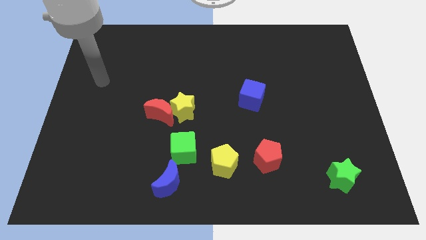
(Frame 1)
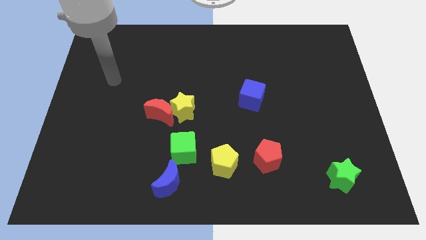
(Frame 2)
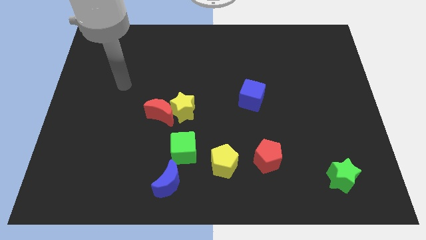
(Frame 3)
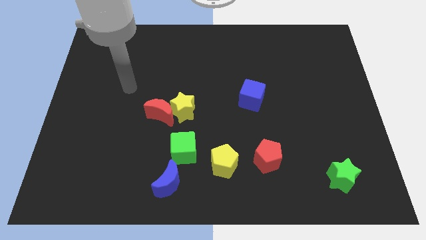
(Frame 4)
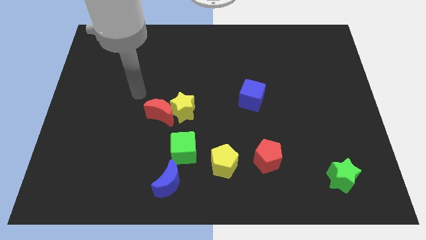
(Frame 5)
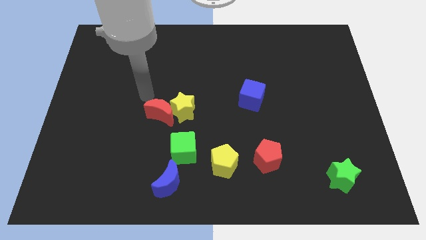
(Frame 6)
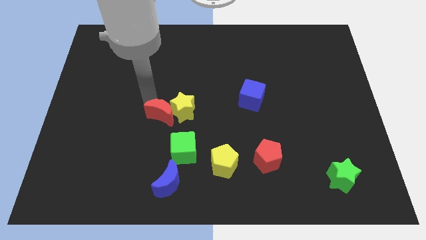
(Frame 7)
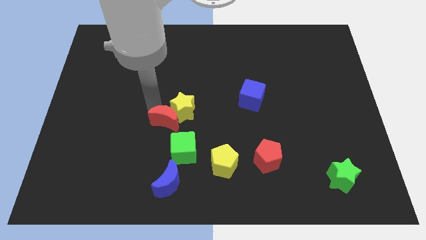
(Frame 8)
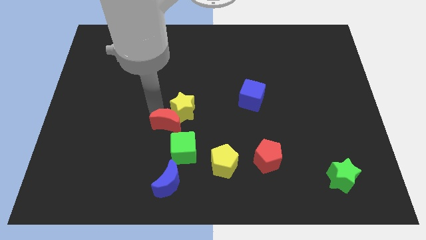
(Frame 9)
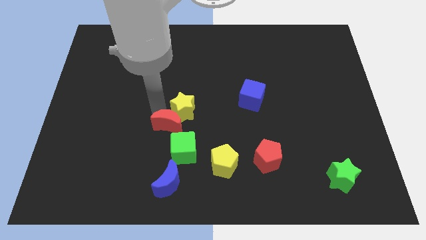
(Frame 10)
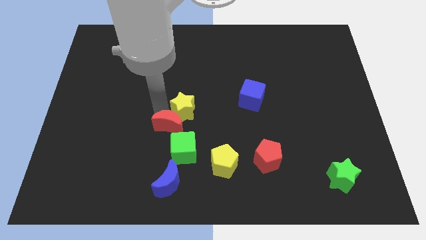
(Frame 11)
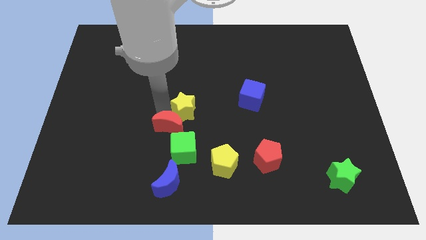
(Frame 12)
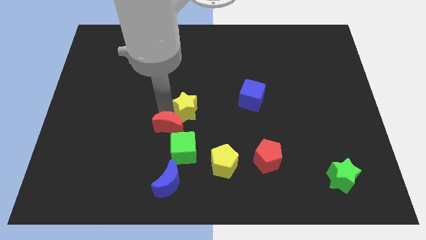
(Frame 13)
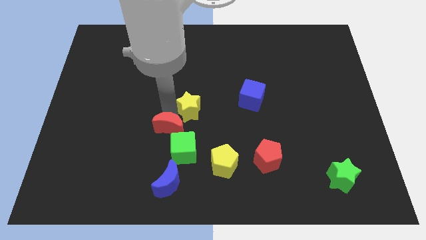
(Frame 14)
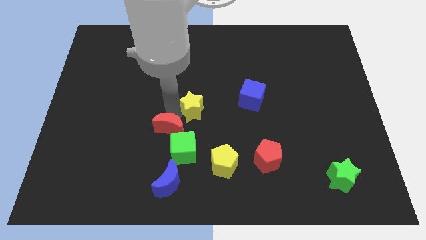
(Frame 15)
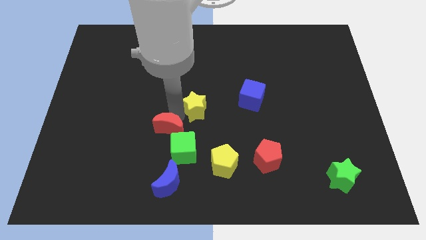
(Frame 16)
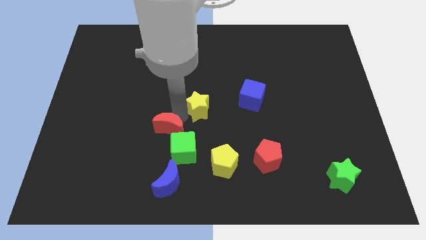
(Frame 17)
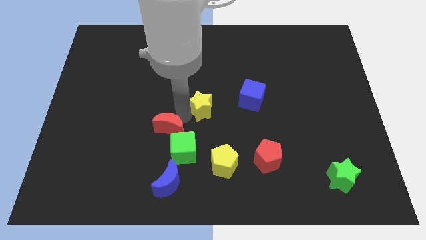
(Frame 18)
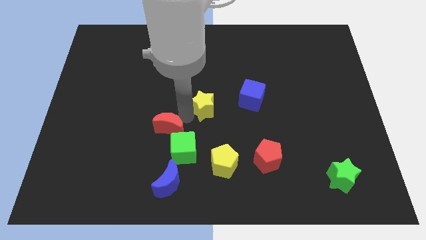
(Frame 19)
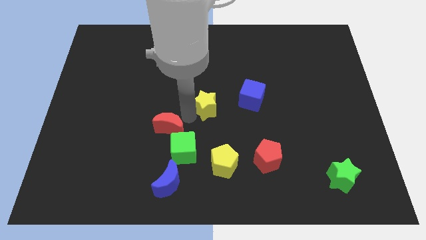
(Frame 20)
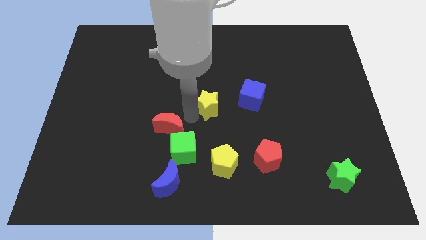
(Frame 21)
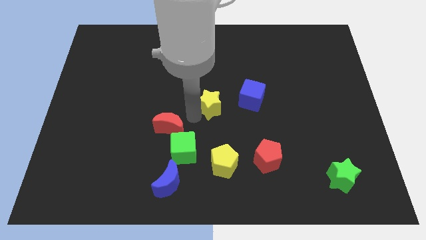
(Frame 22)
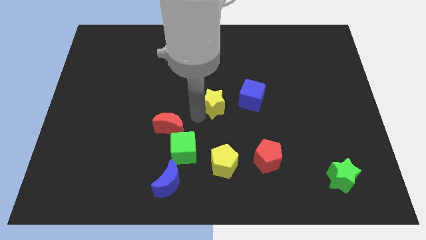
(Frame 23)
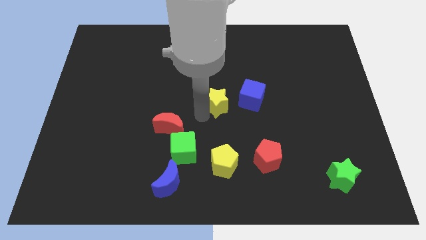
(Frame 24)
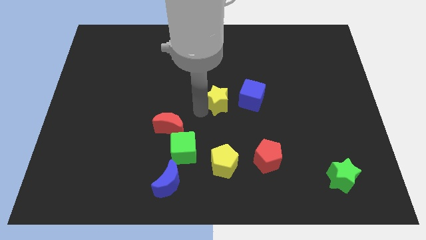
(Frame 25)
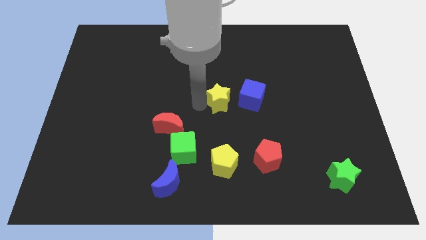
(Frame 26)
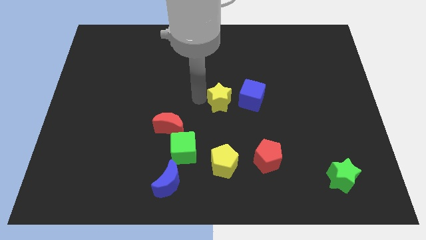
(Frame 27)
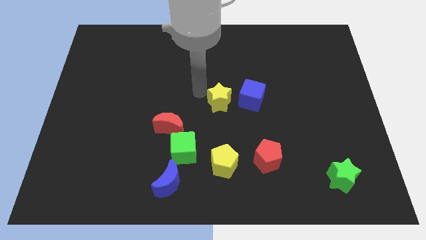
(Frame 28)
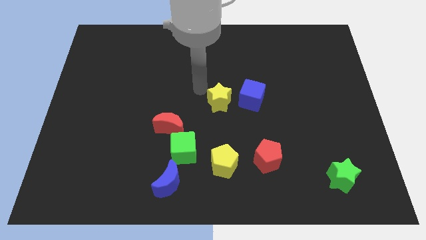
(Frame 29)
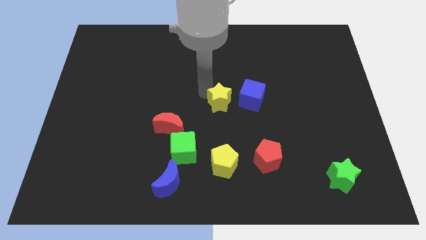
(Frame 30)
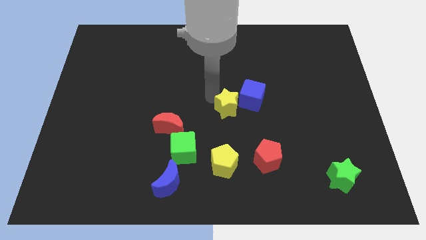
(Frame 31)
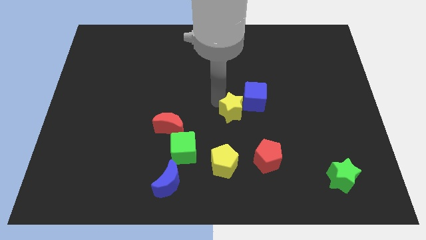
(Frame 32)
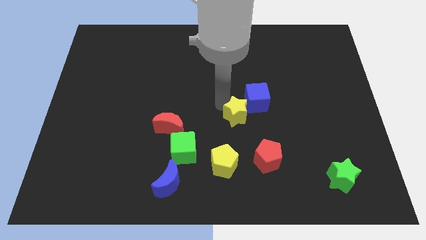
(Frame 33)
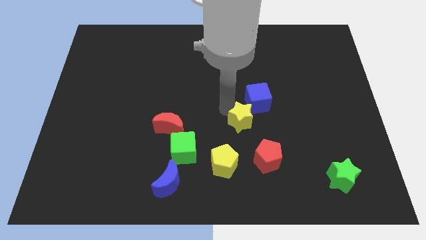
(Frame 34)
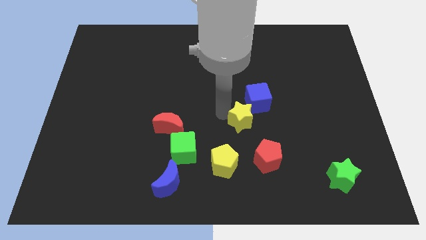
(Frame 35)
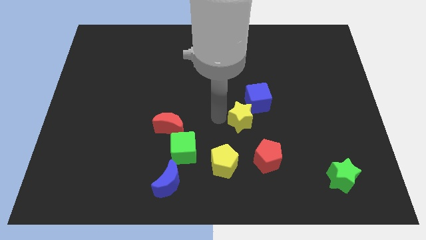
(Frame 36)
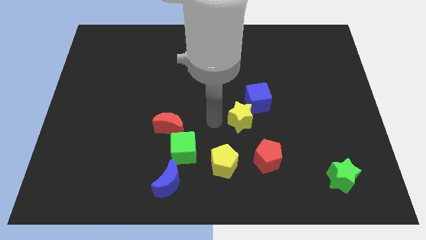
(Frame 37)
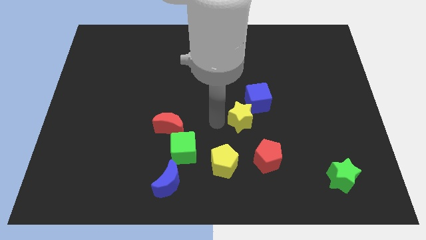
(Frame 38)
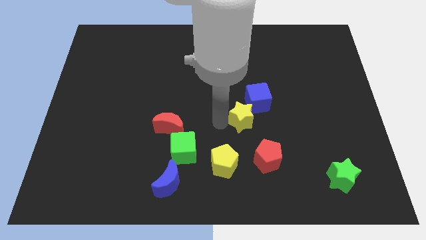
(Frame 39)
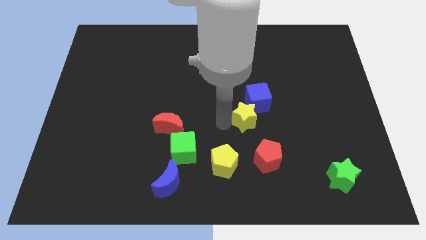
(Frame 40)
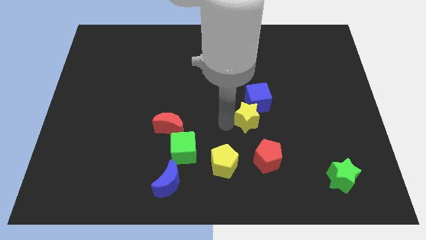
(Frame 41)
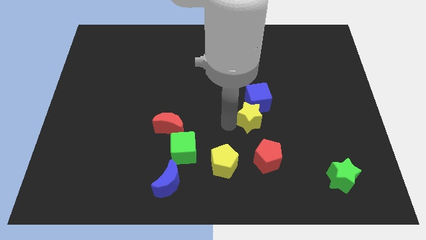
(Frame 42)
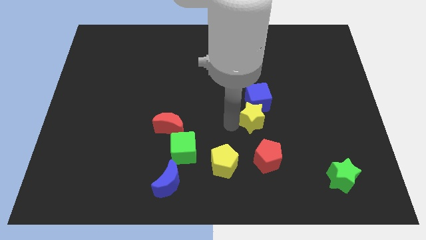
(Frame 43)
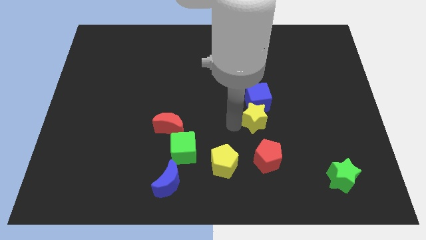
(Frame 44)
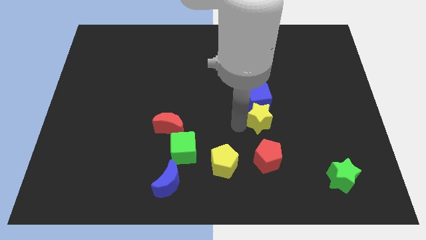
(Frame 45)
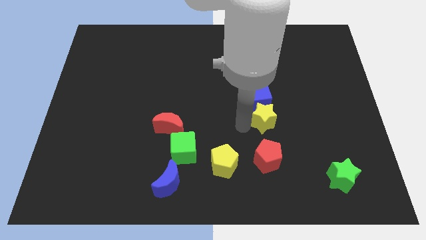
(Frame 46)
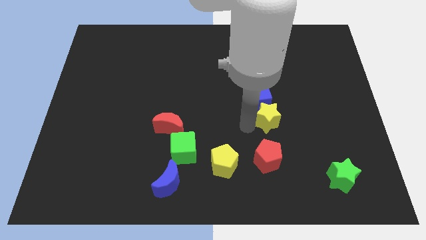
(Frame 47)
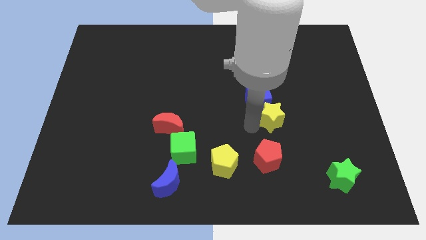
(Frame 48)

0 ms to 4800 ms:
move the yellow star right

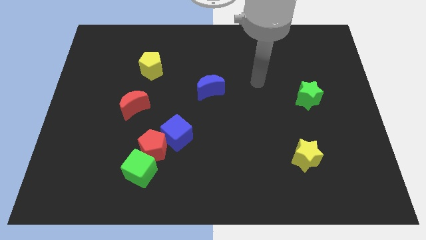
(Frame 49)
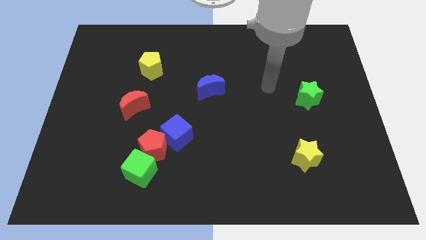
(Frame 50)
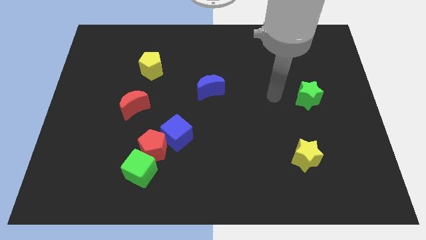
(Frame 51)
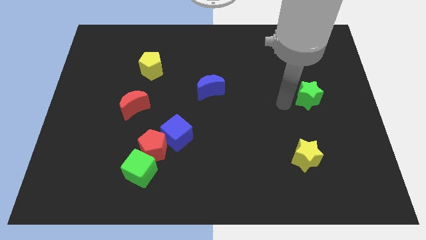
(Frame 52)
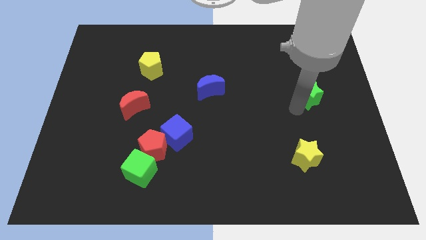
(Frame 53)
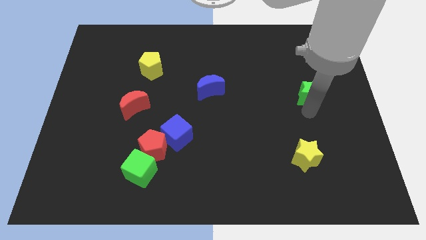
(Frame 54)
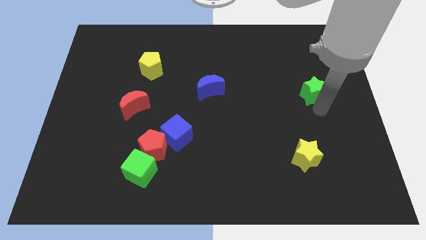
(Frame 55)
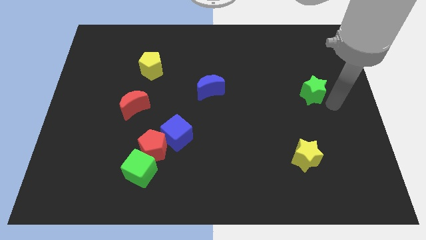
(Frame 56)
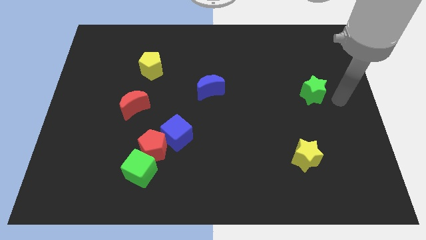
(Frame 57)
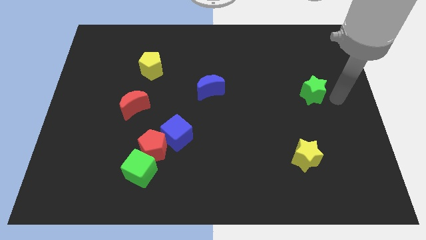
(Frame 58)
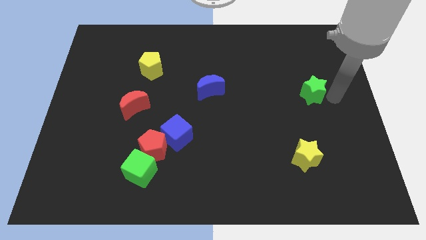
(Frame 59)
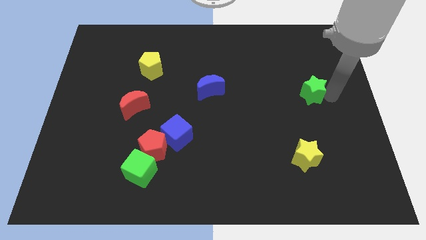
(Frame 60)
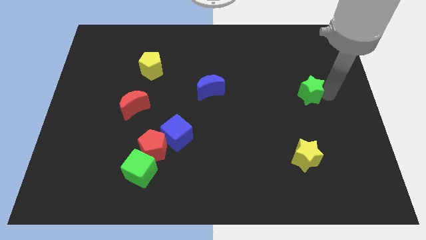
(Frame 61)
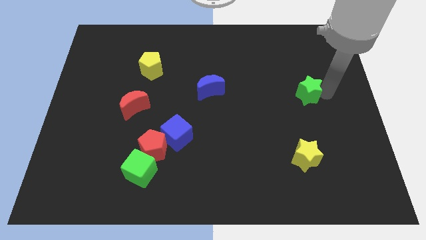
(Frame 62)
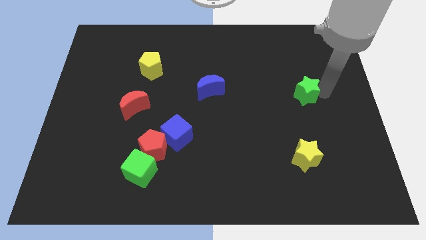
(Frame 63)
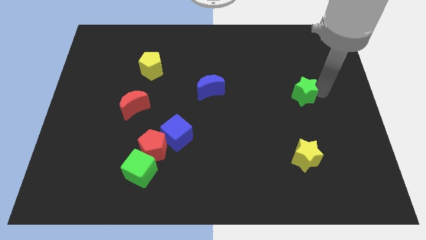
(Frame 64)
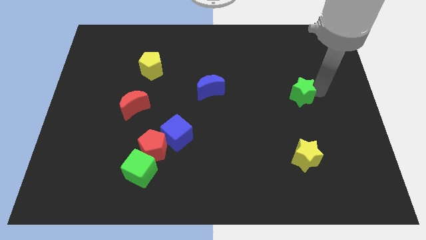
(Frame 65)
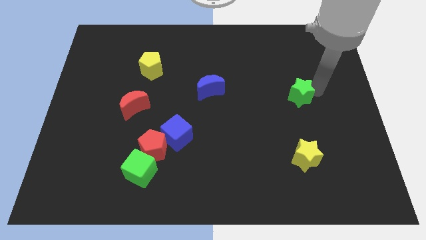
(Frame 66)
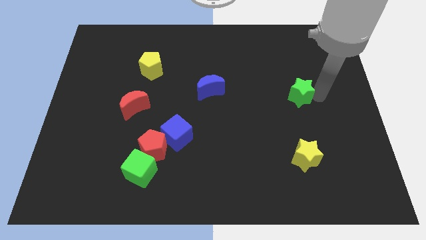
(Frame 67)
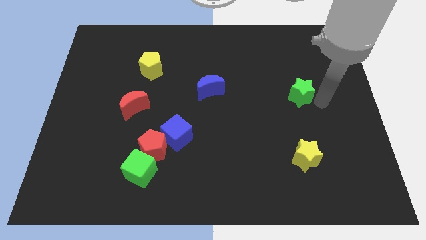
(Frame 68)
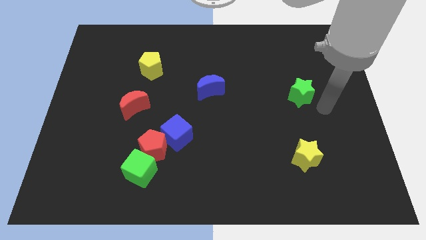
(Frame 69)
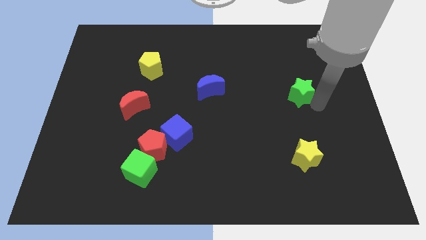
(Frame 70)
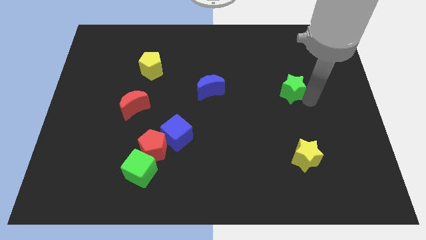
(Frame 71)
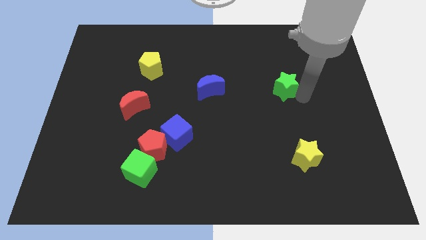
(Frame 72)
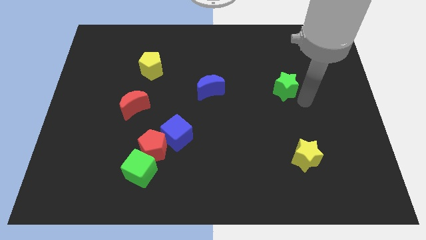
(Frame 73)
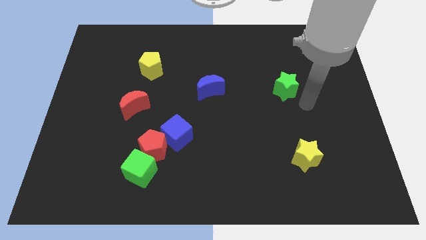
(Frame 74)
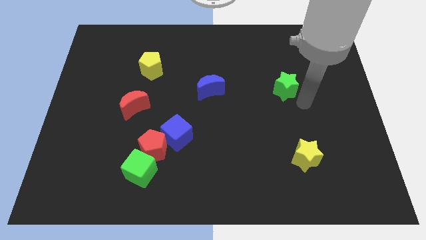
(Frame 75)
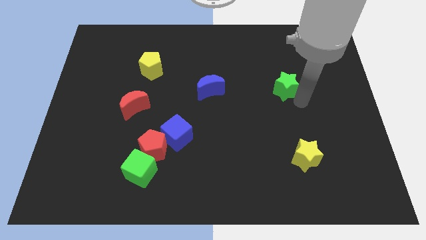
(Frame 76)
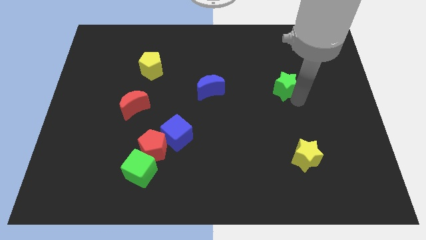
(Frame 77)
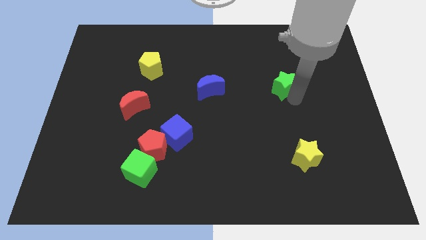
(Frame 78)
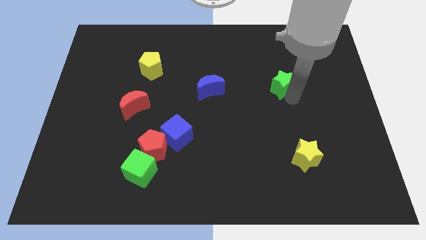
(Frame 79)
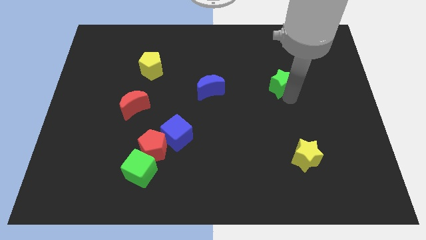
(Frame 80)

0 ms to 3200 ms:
push the green star a bit up and left

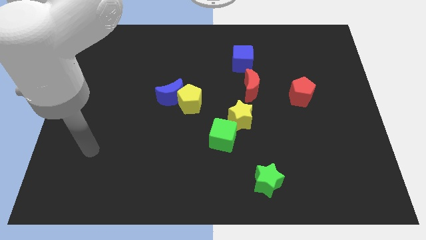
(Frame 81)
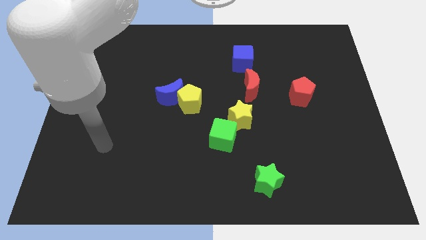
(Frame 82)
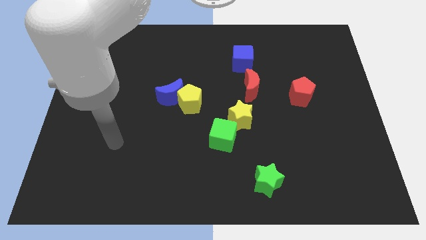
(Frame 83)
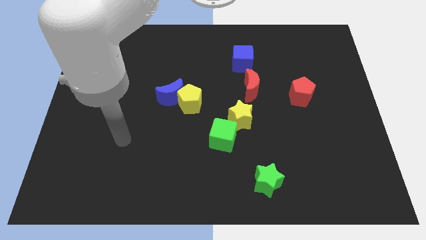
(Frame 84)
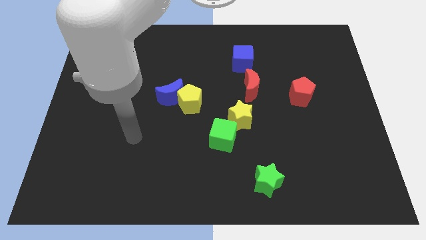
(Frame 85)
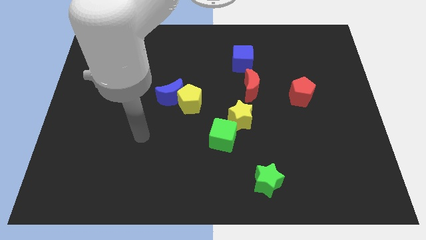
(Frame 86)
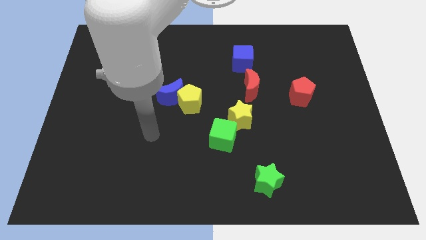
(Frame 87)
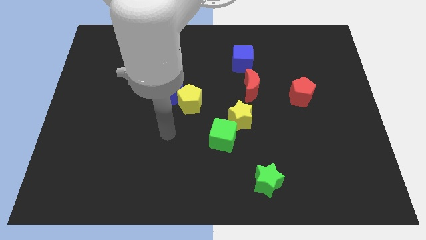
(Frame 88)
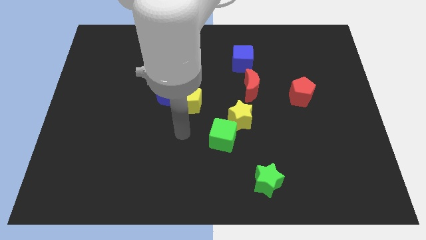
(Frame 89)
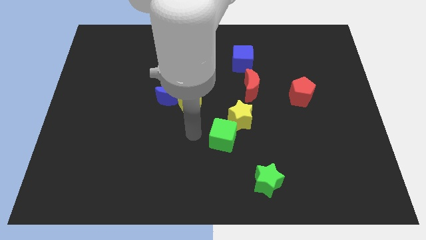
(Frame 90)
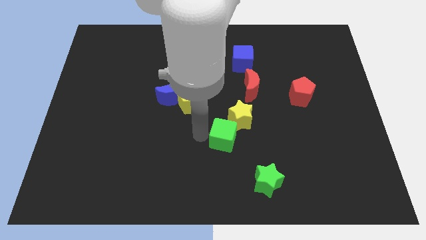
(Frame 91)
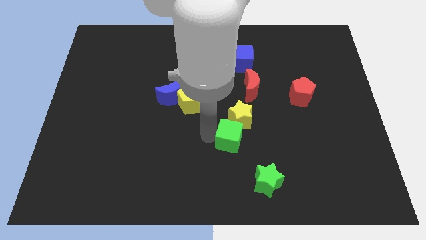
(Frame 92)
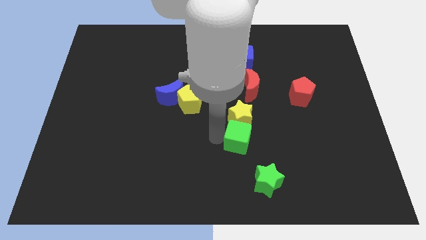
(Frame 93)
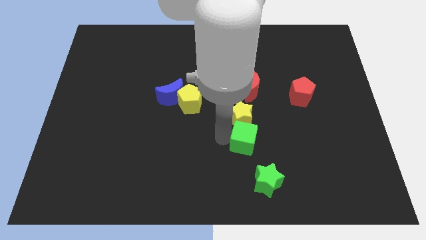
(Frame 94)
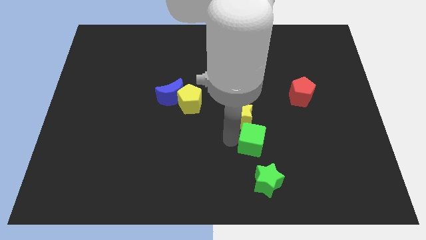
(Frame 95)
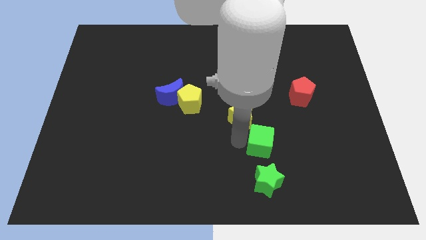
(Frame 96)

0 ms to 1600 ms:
slightly slide the green cube to the right
